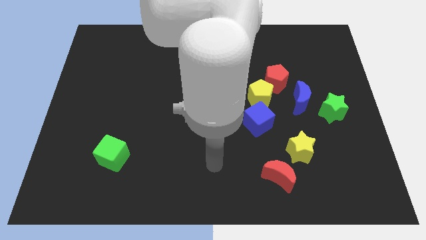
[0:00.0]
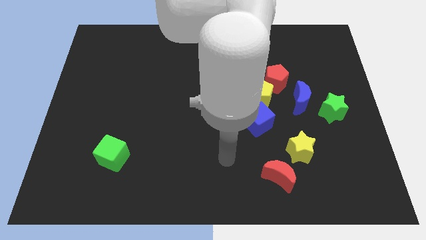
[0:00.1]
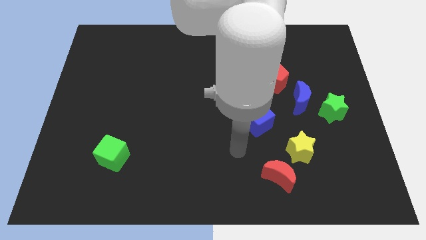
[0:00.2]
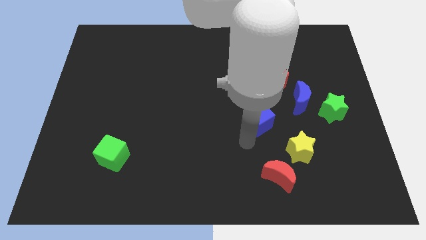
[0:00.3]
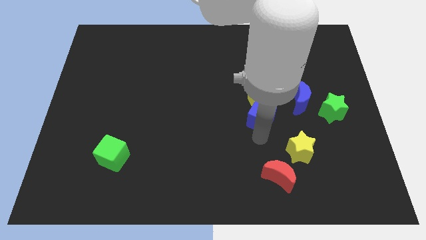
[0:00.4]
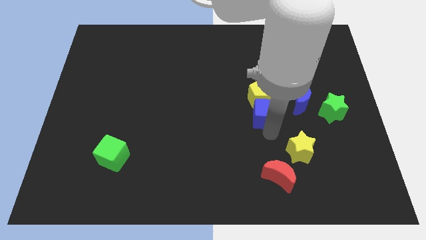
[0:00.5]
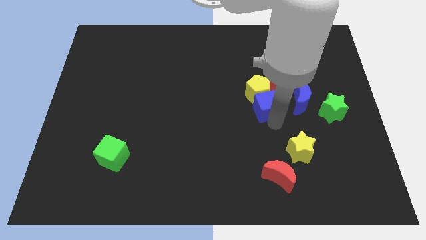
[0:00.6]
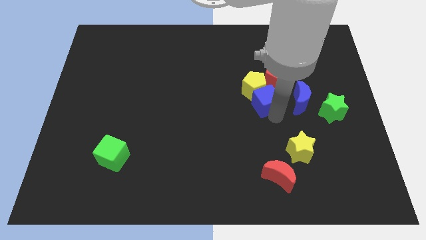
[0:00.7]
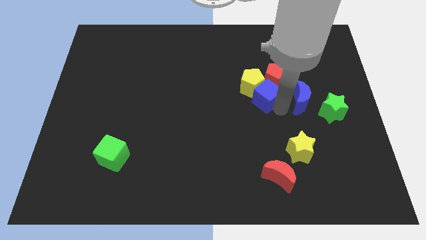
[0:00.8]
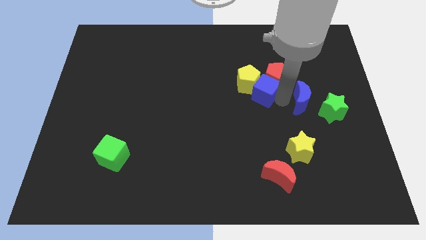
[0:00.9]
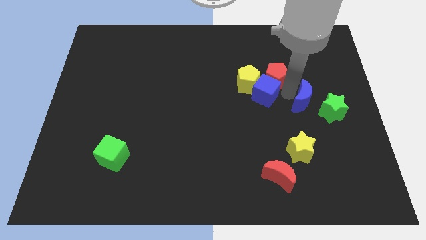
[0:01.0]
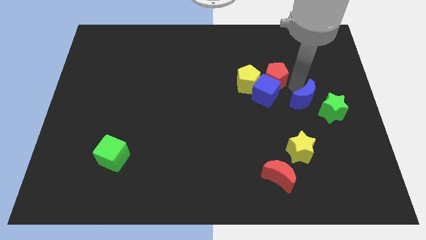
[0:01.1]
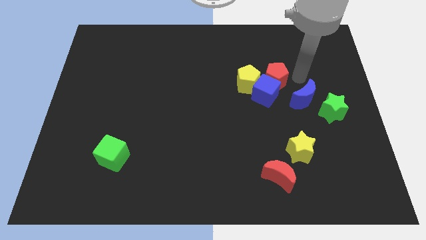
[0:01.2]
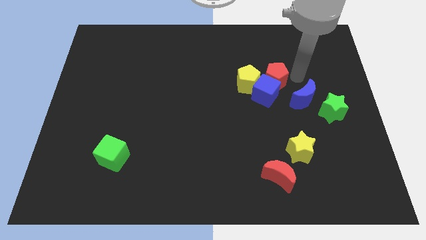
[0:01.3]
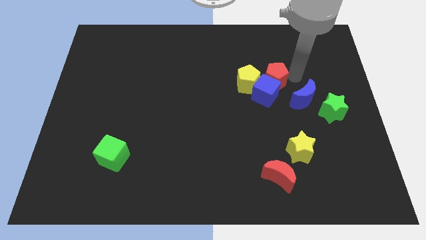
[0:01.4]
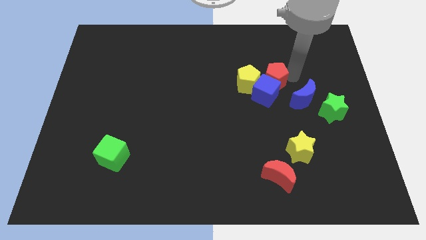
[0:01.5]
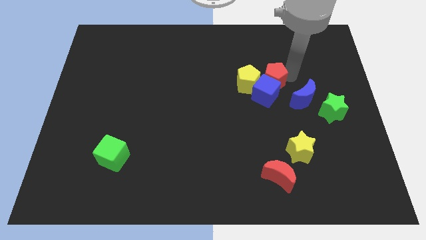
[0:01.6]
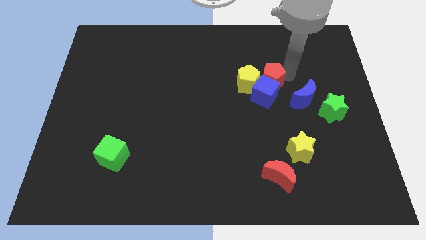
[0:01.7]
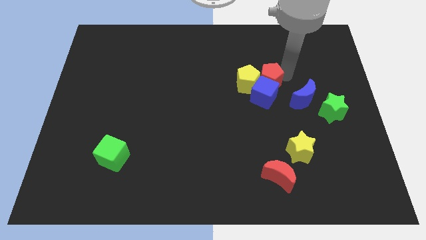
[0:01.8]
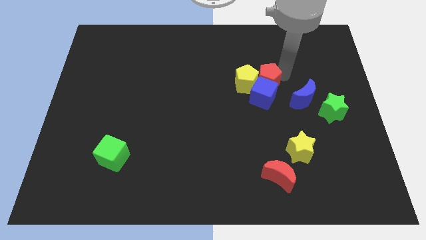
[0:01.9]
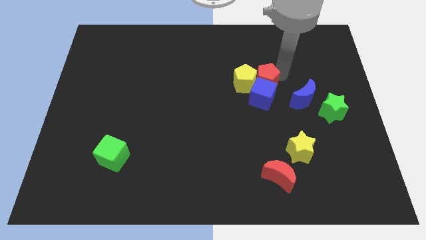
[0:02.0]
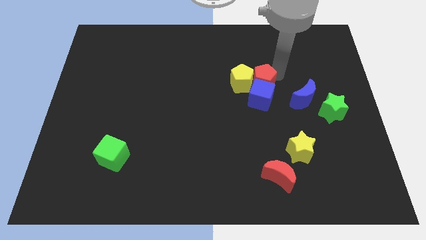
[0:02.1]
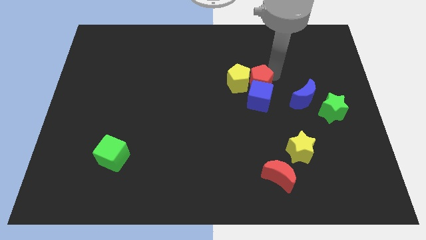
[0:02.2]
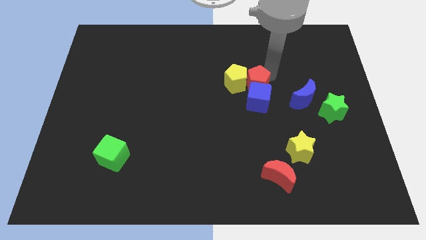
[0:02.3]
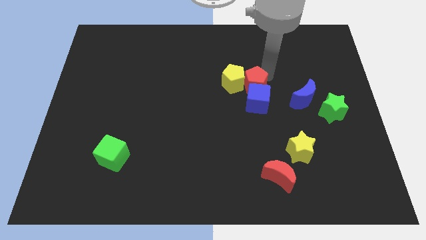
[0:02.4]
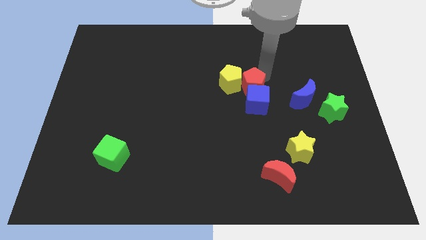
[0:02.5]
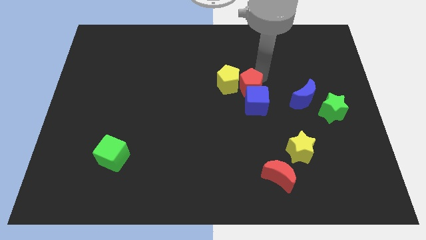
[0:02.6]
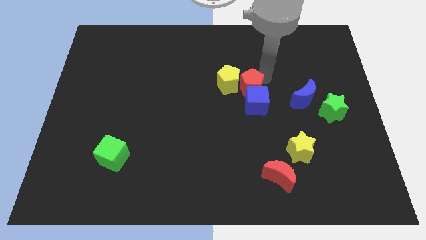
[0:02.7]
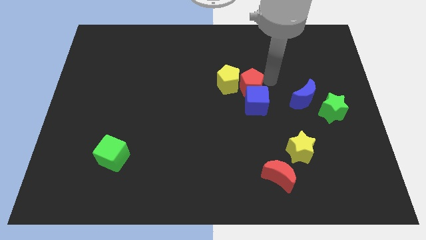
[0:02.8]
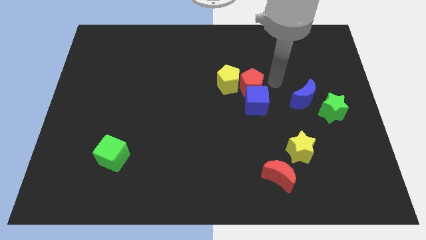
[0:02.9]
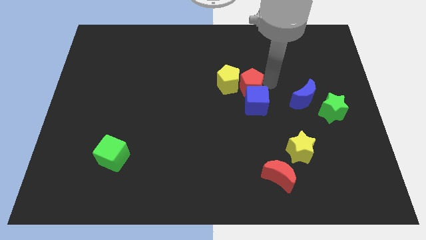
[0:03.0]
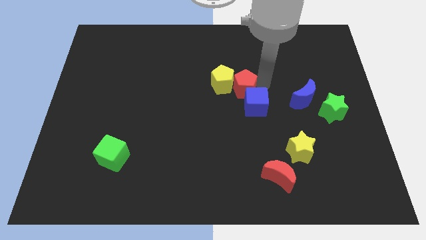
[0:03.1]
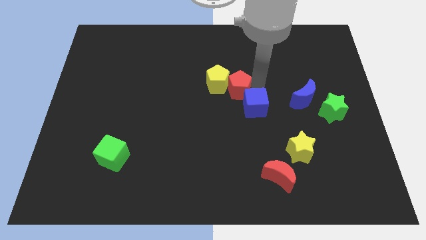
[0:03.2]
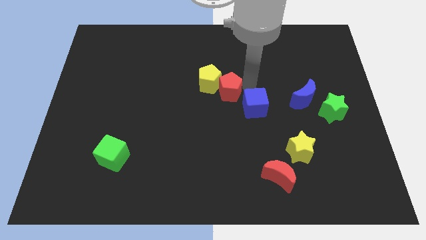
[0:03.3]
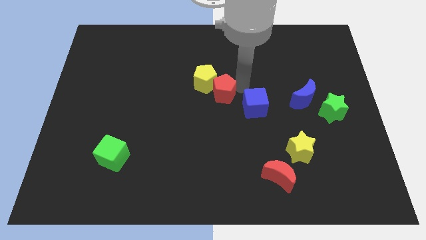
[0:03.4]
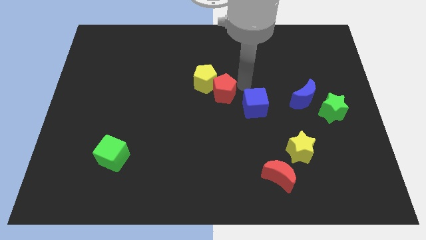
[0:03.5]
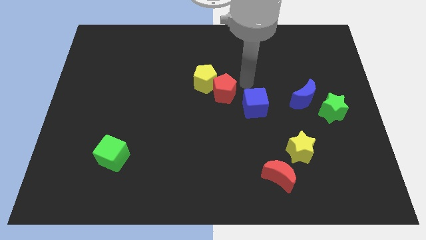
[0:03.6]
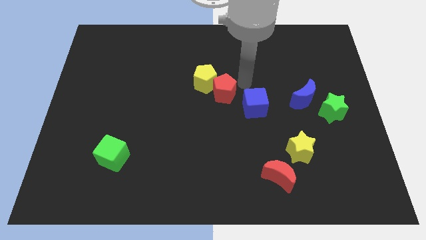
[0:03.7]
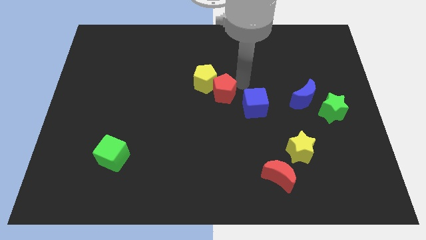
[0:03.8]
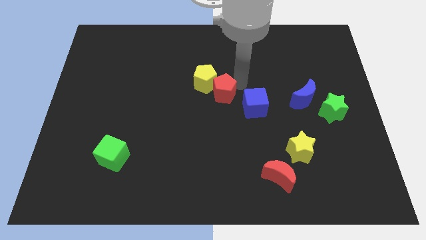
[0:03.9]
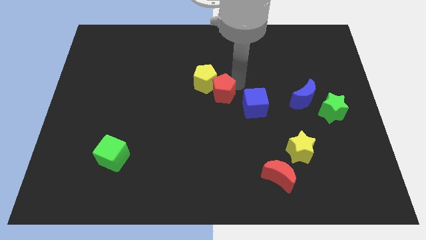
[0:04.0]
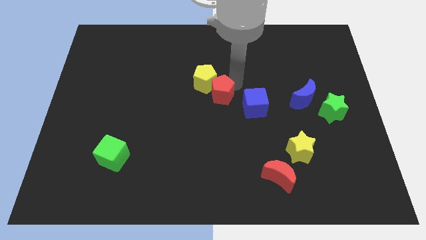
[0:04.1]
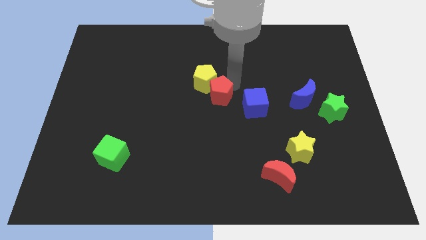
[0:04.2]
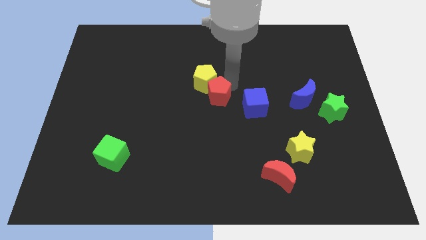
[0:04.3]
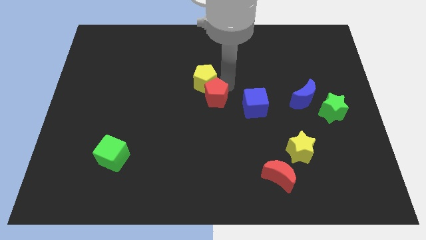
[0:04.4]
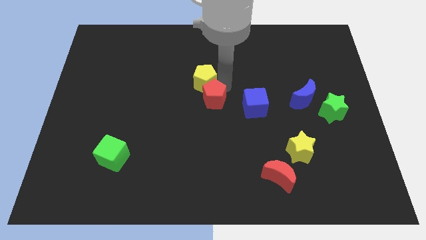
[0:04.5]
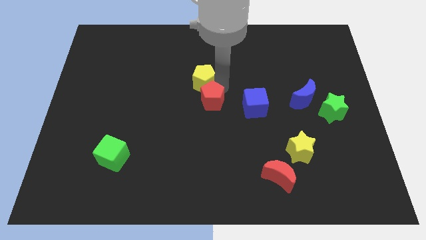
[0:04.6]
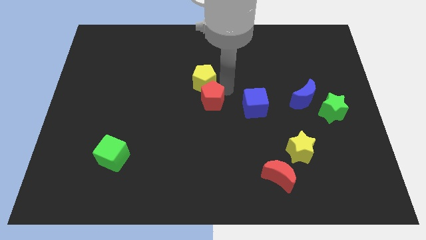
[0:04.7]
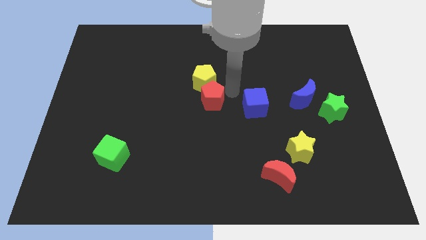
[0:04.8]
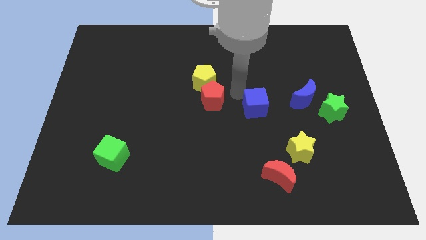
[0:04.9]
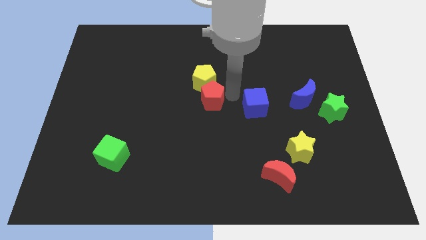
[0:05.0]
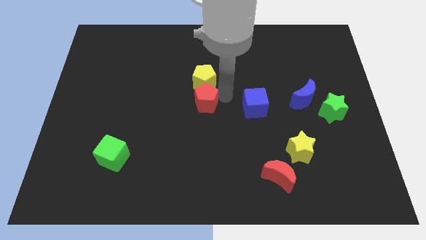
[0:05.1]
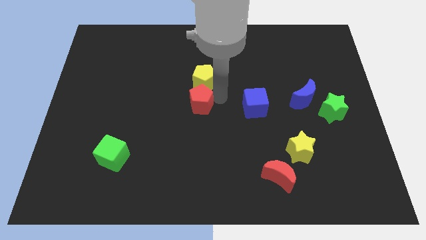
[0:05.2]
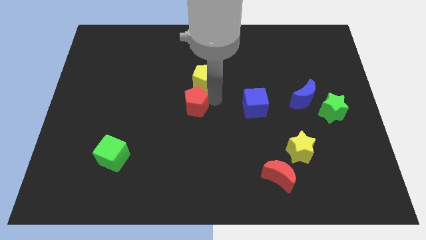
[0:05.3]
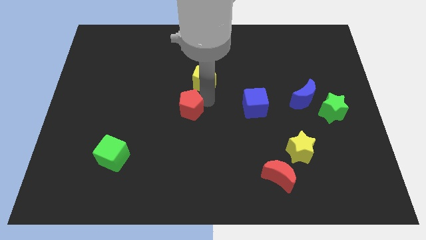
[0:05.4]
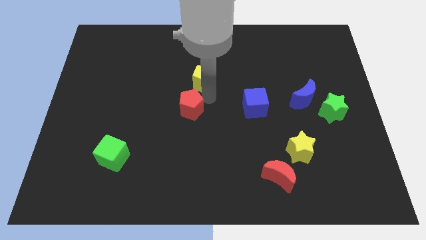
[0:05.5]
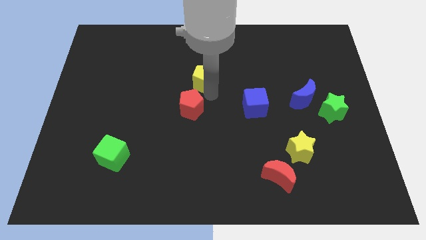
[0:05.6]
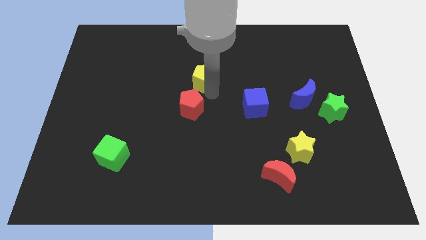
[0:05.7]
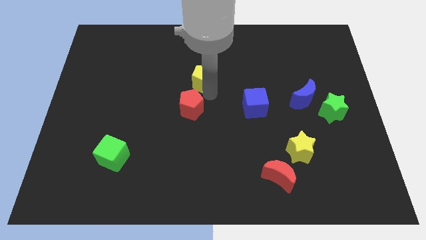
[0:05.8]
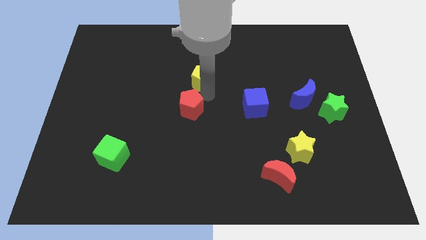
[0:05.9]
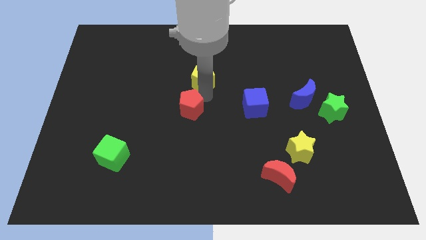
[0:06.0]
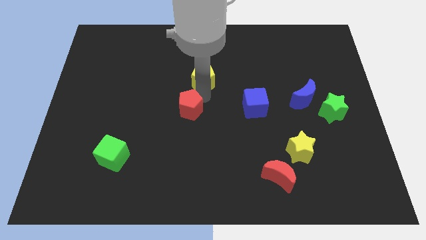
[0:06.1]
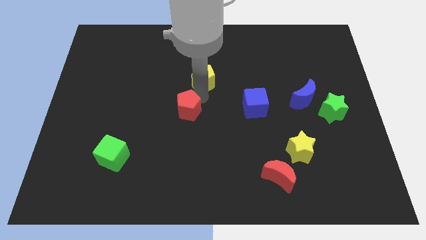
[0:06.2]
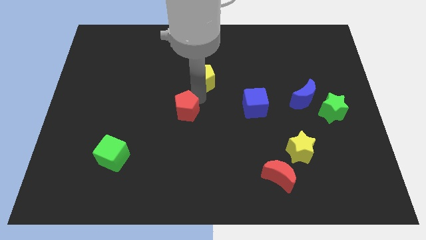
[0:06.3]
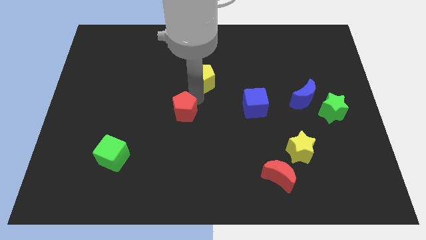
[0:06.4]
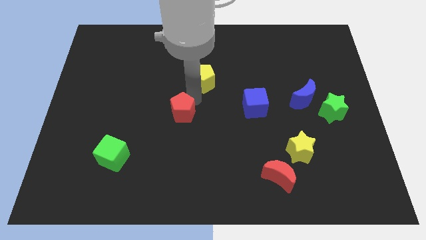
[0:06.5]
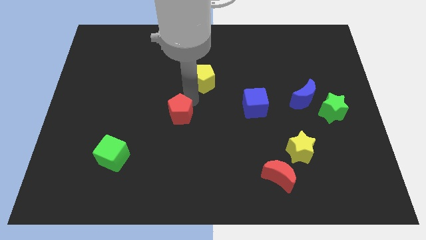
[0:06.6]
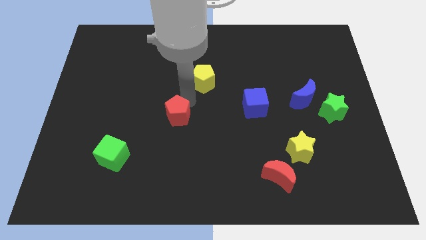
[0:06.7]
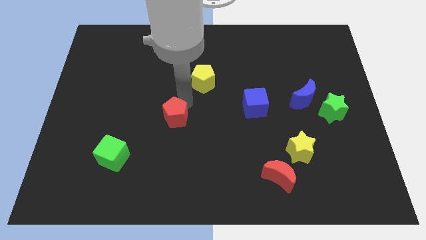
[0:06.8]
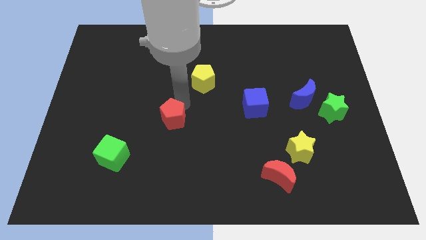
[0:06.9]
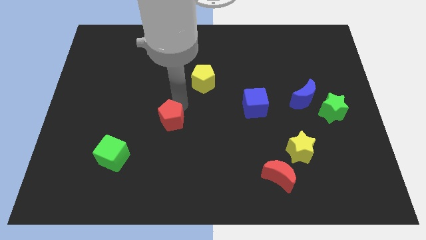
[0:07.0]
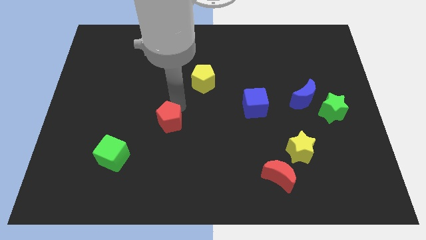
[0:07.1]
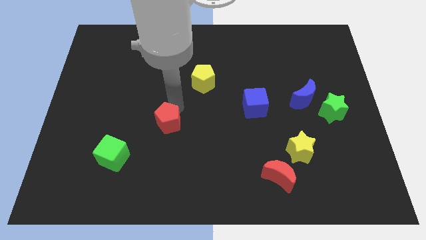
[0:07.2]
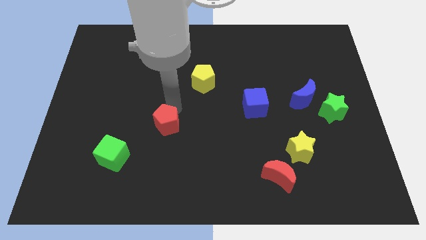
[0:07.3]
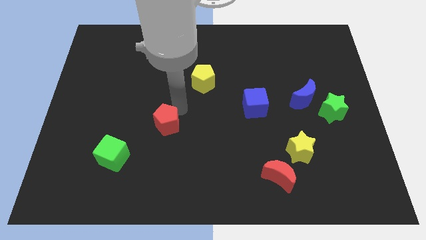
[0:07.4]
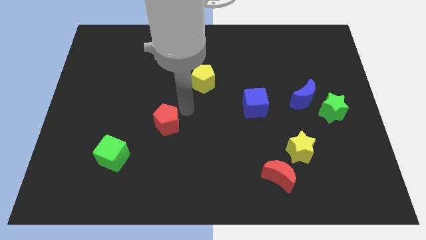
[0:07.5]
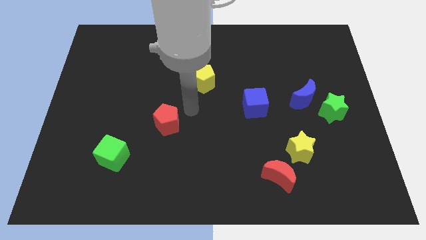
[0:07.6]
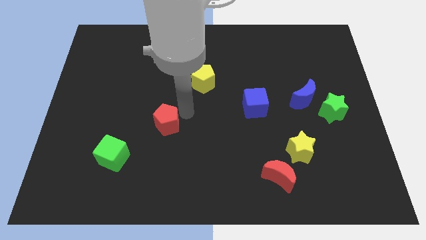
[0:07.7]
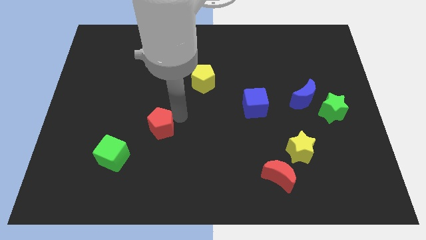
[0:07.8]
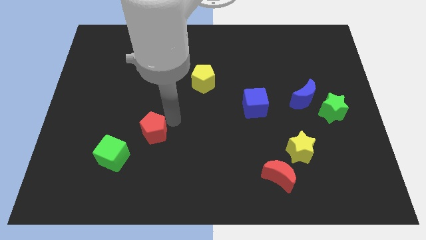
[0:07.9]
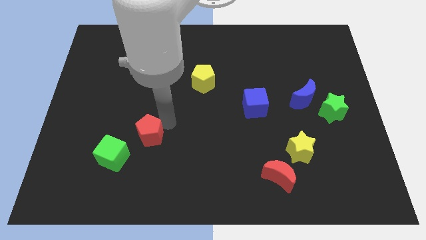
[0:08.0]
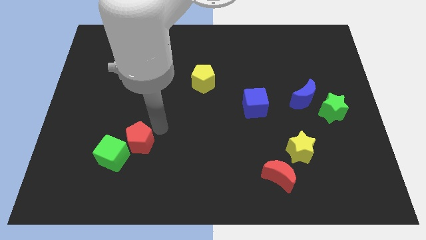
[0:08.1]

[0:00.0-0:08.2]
push the red pentagon close to the green cube
